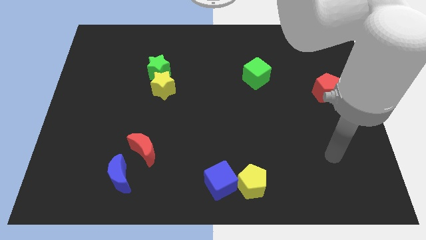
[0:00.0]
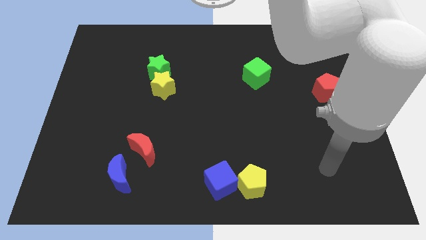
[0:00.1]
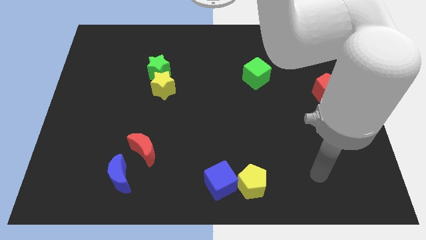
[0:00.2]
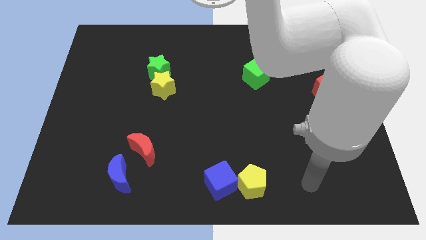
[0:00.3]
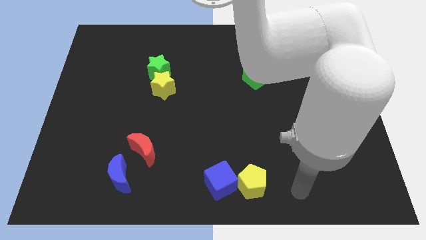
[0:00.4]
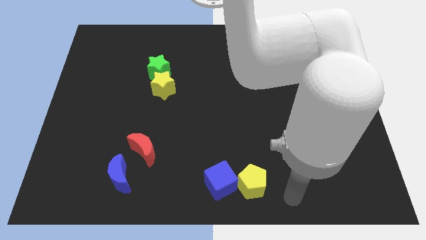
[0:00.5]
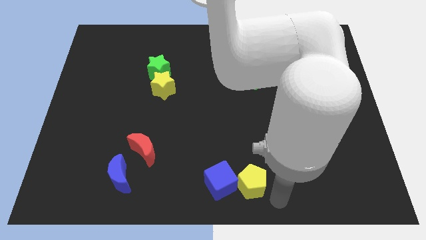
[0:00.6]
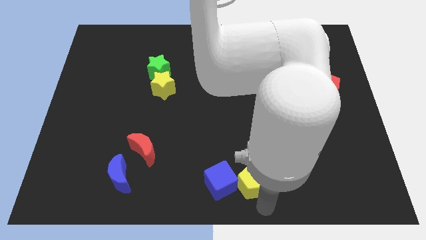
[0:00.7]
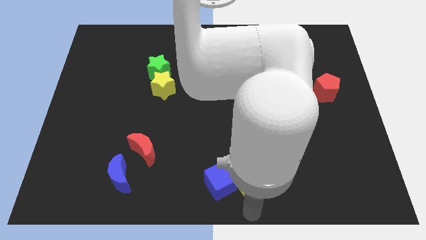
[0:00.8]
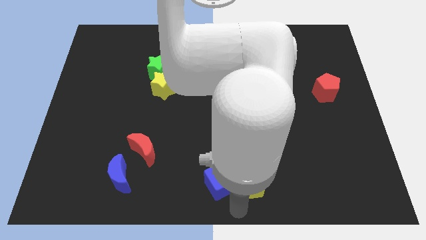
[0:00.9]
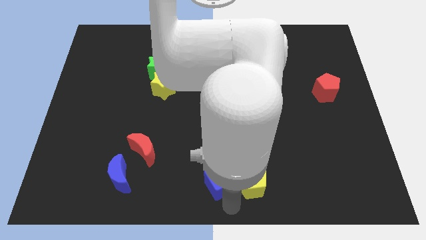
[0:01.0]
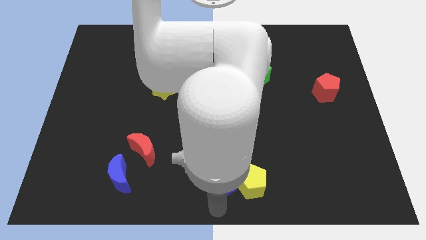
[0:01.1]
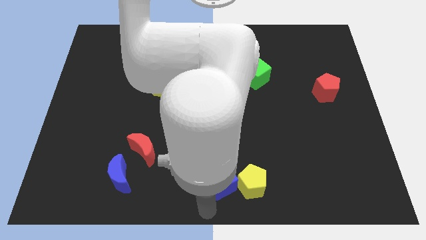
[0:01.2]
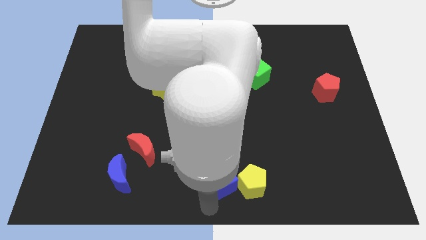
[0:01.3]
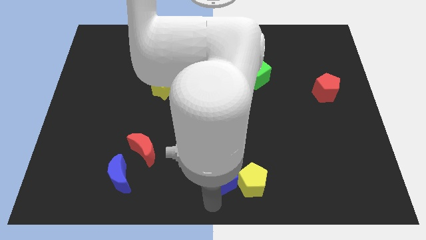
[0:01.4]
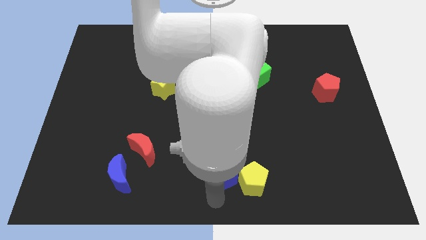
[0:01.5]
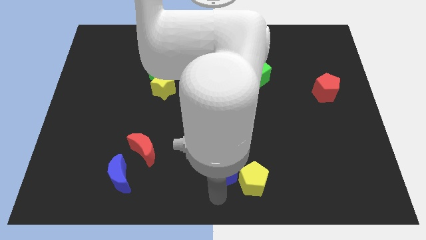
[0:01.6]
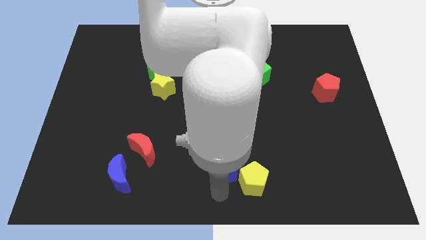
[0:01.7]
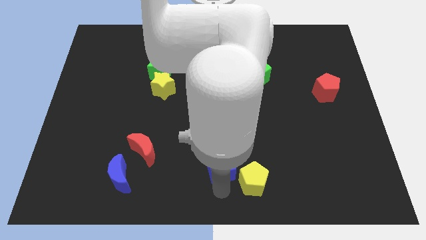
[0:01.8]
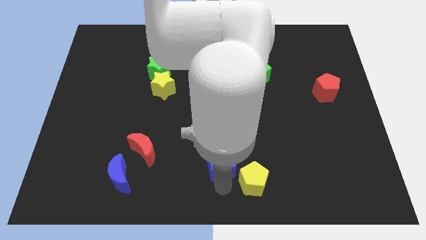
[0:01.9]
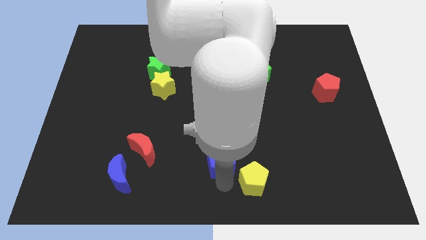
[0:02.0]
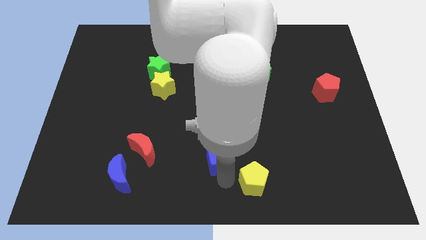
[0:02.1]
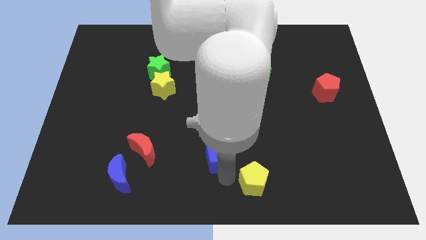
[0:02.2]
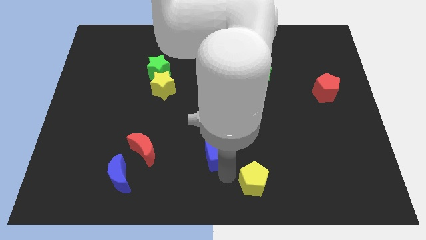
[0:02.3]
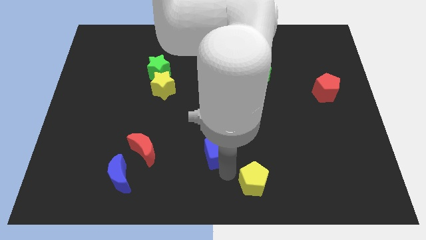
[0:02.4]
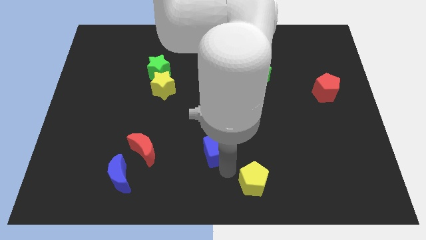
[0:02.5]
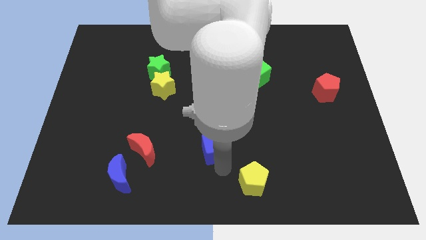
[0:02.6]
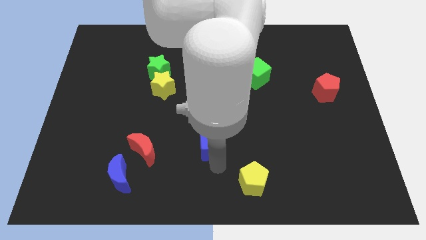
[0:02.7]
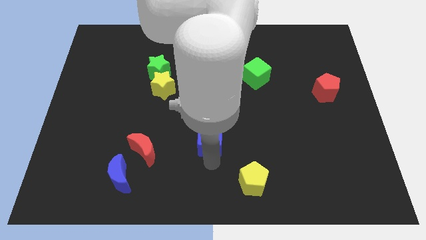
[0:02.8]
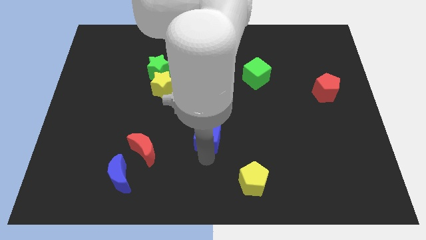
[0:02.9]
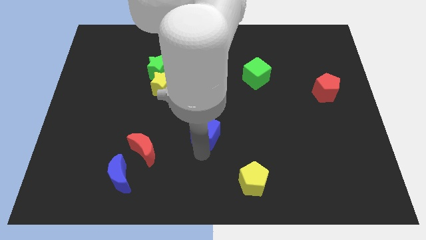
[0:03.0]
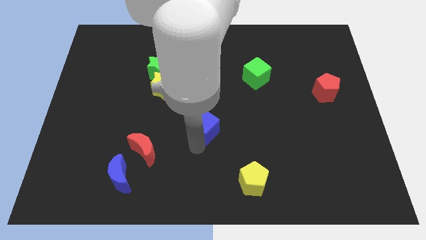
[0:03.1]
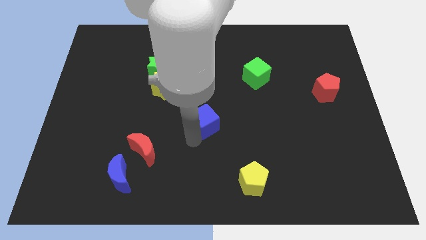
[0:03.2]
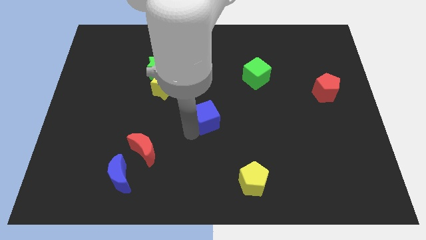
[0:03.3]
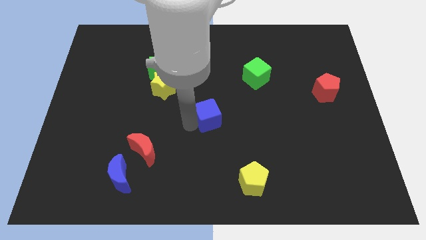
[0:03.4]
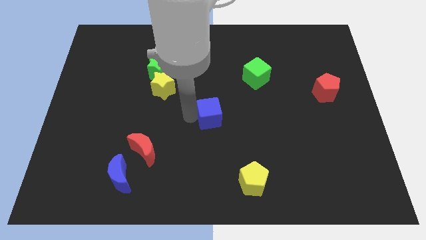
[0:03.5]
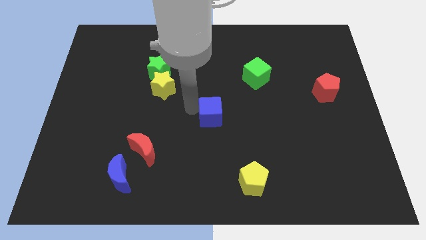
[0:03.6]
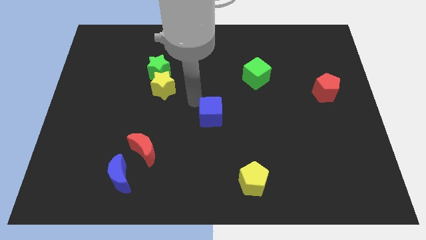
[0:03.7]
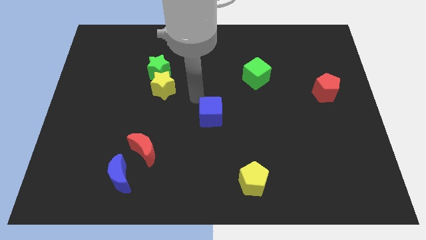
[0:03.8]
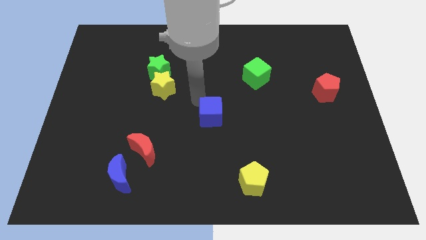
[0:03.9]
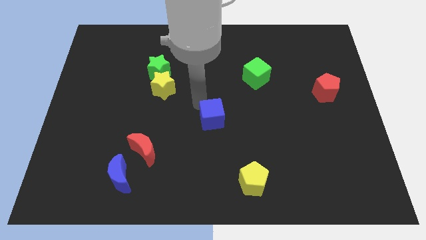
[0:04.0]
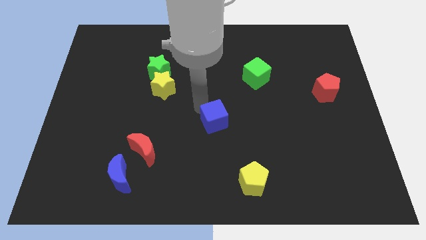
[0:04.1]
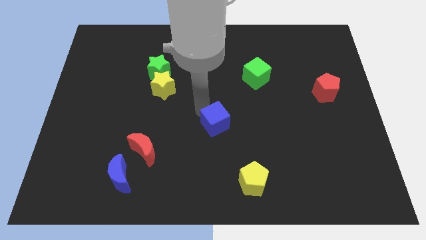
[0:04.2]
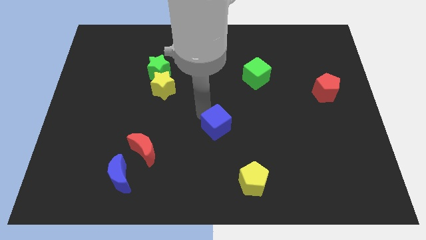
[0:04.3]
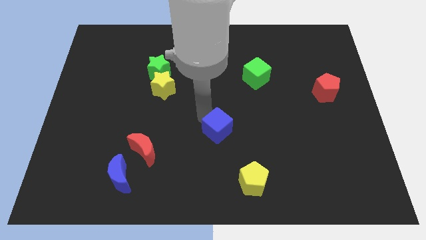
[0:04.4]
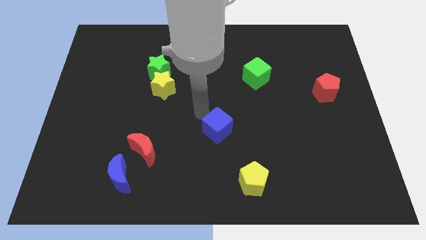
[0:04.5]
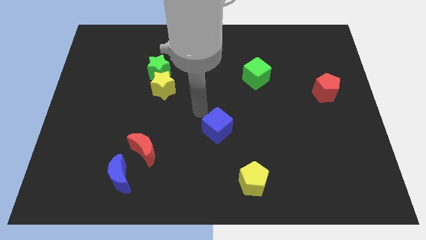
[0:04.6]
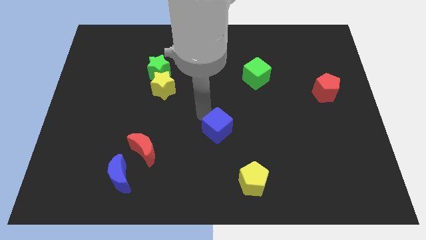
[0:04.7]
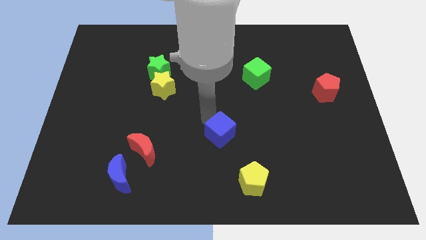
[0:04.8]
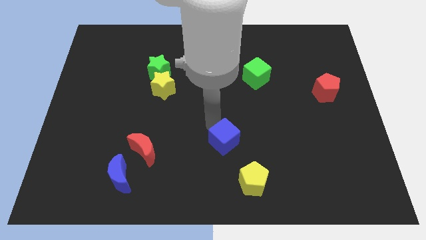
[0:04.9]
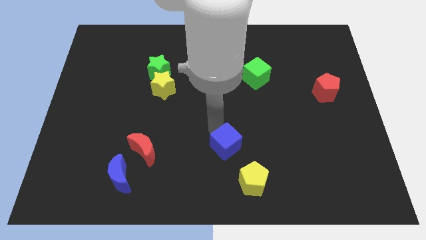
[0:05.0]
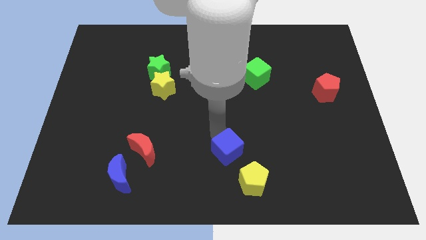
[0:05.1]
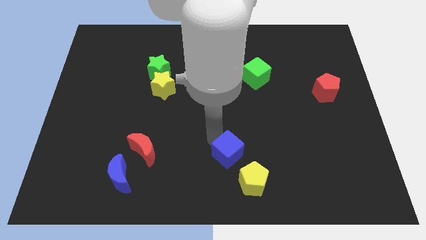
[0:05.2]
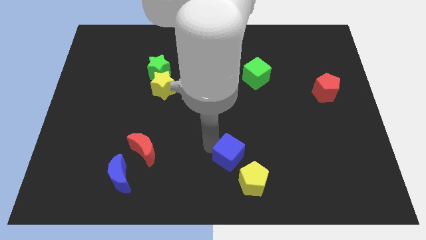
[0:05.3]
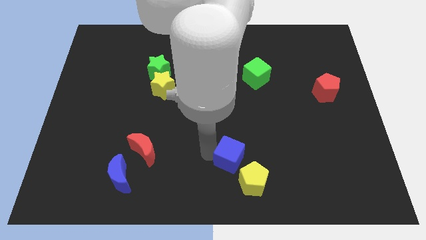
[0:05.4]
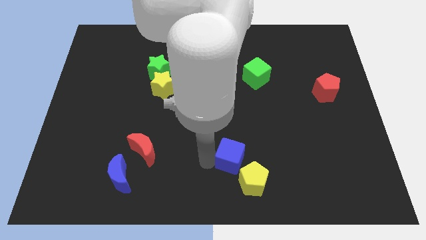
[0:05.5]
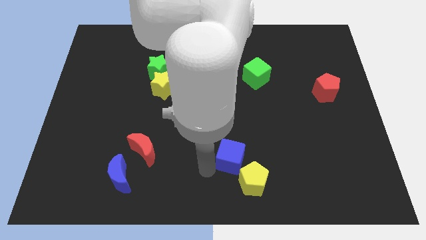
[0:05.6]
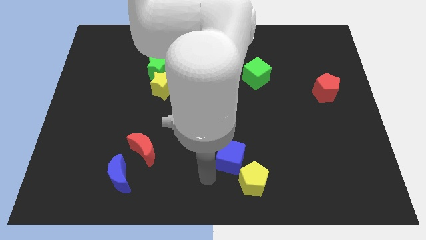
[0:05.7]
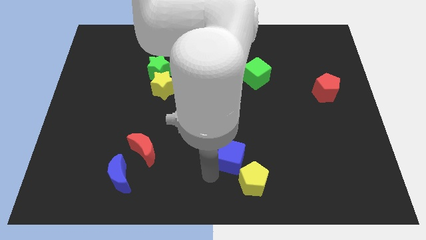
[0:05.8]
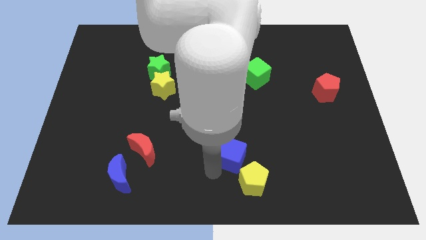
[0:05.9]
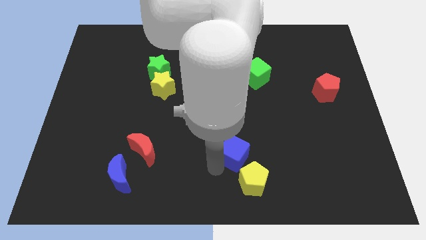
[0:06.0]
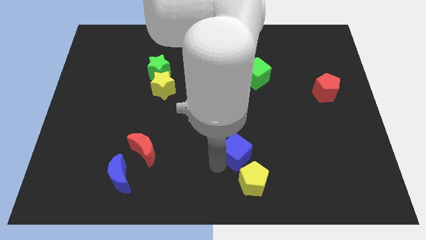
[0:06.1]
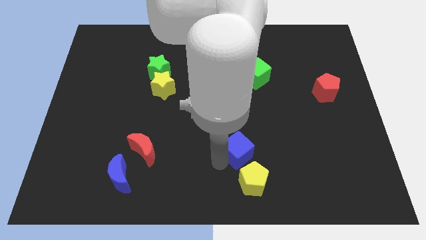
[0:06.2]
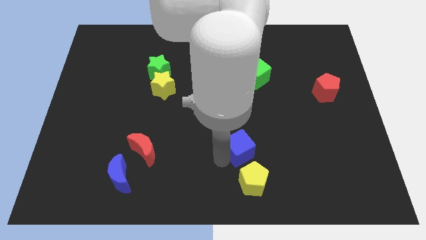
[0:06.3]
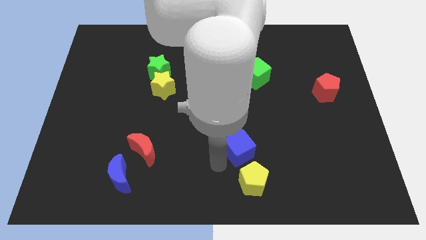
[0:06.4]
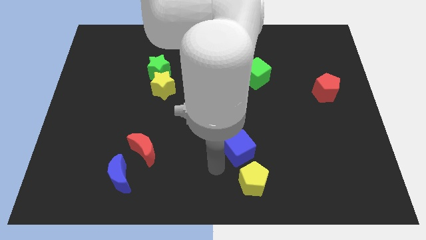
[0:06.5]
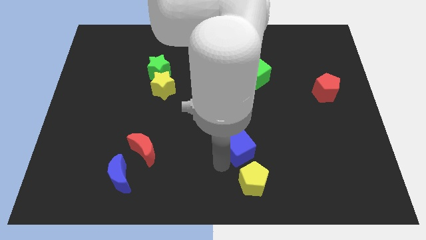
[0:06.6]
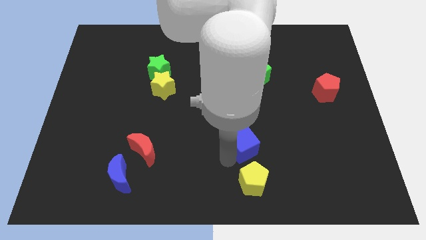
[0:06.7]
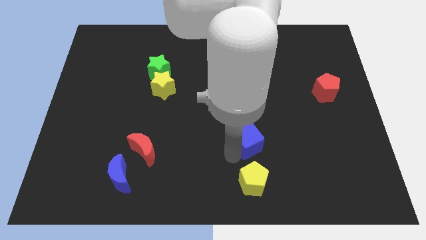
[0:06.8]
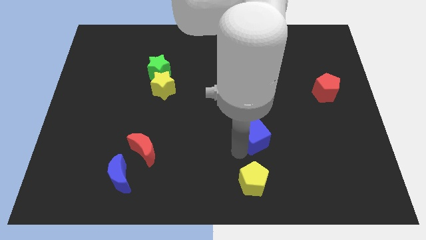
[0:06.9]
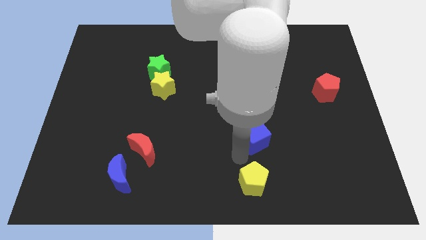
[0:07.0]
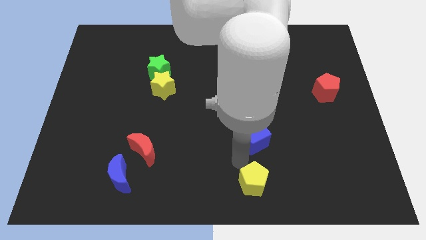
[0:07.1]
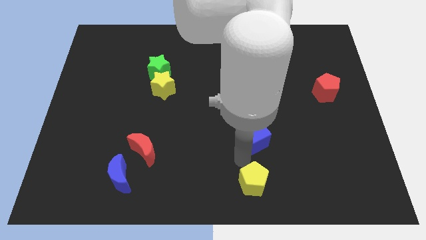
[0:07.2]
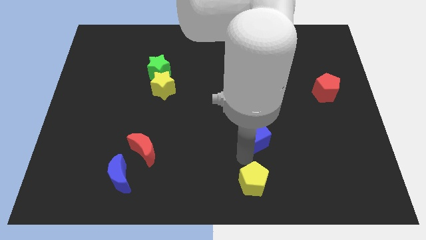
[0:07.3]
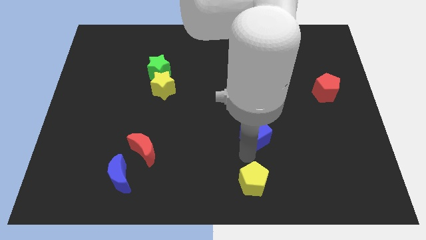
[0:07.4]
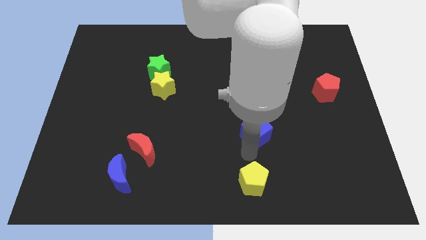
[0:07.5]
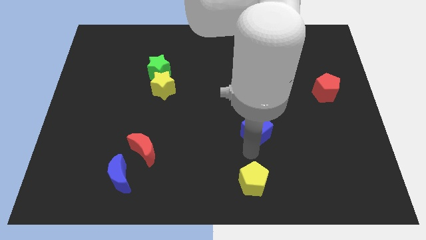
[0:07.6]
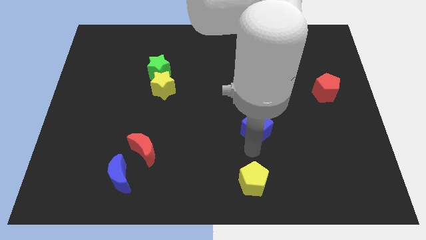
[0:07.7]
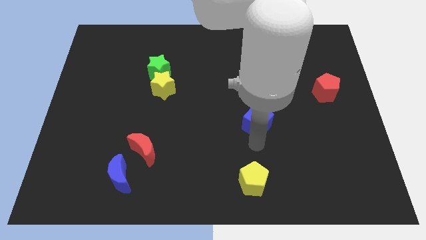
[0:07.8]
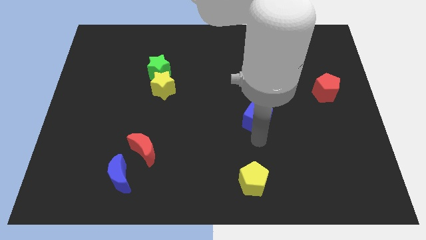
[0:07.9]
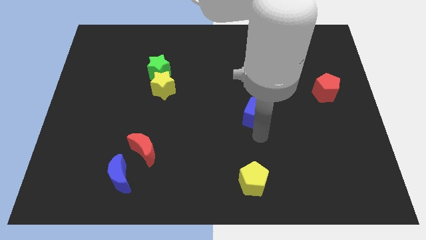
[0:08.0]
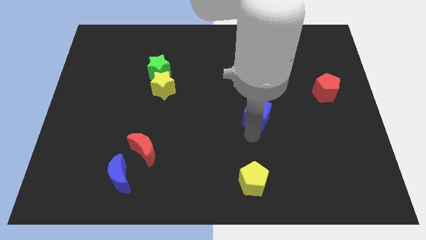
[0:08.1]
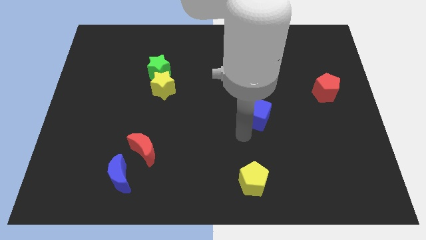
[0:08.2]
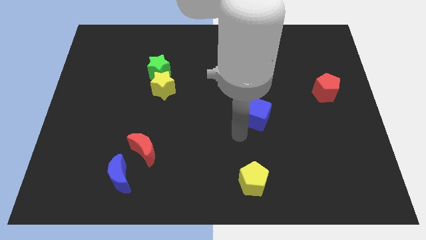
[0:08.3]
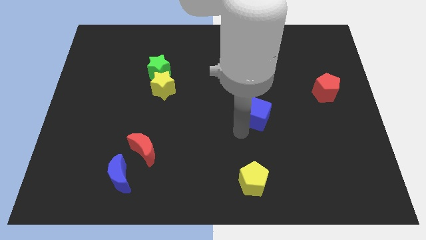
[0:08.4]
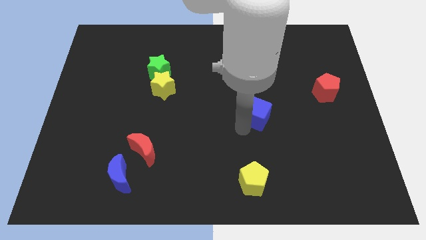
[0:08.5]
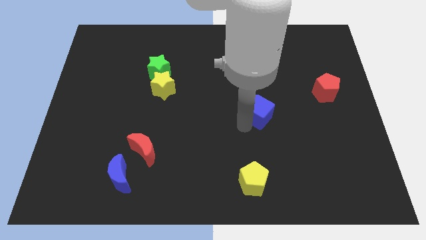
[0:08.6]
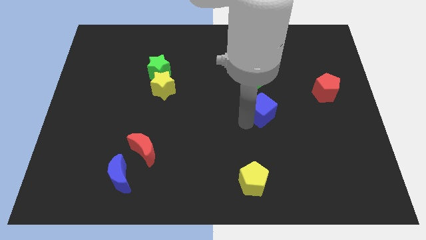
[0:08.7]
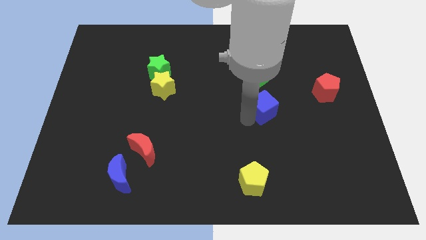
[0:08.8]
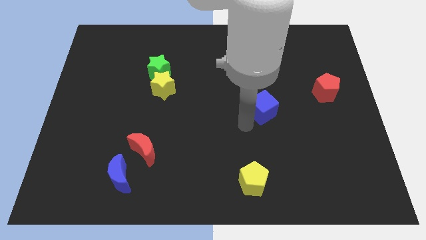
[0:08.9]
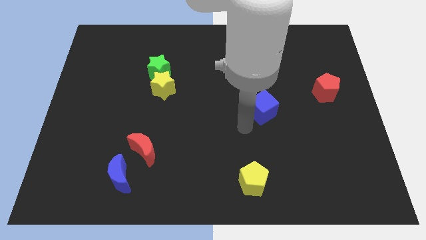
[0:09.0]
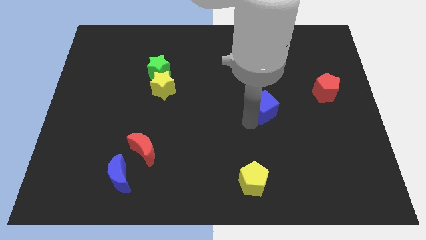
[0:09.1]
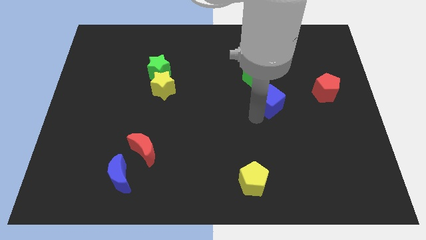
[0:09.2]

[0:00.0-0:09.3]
put the blue cube just left of the red pentagon
